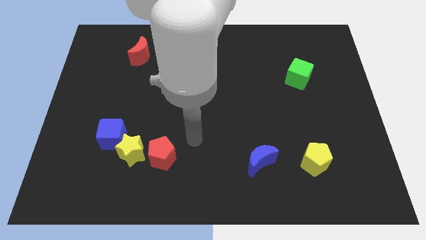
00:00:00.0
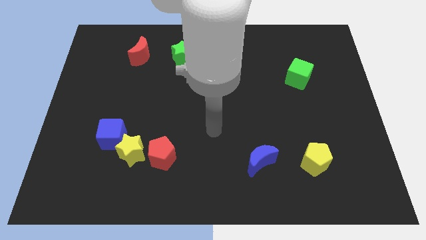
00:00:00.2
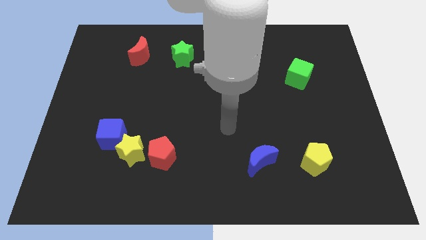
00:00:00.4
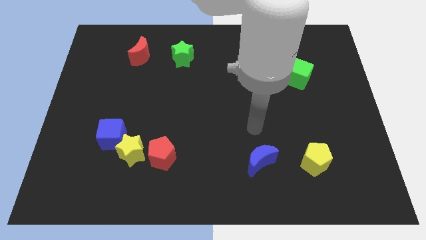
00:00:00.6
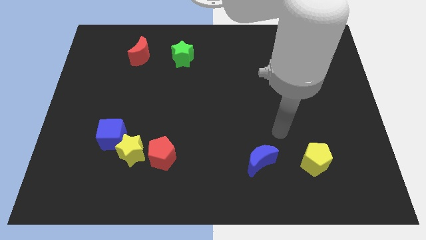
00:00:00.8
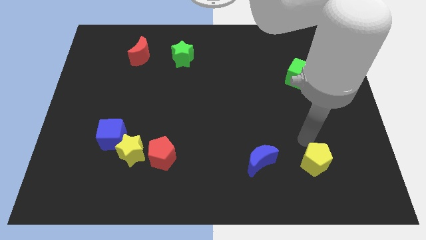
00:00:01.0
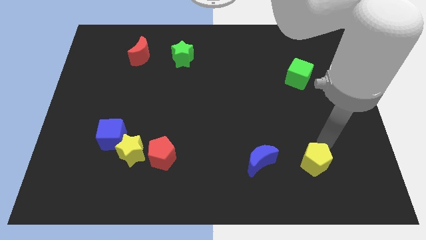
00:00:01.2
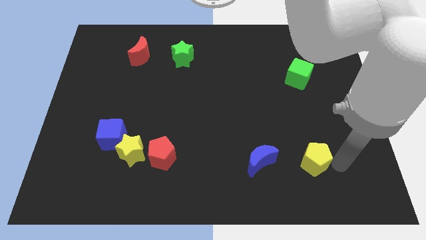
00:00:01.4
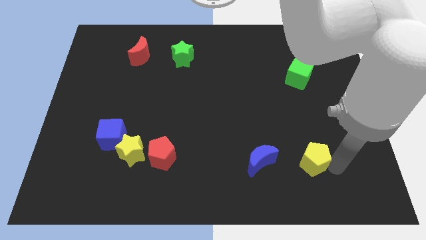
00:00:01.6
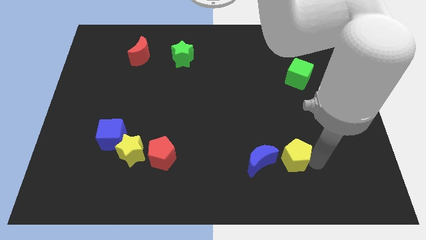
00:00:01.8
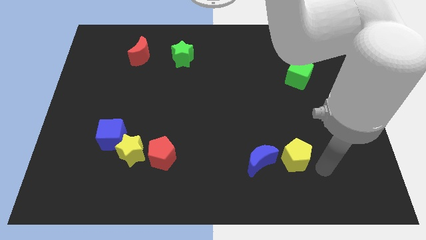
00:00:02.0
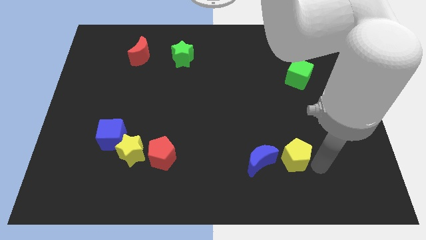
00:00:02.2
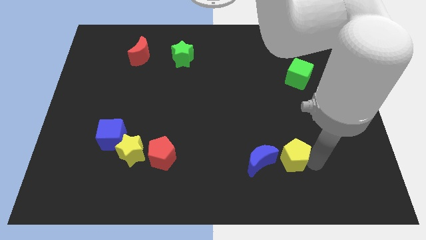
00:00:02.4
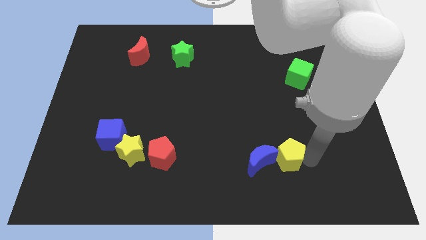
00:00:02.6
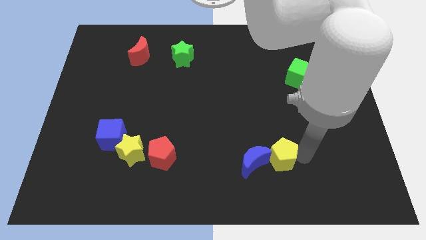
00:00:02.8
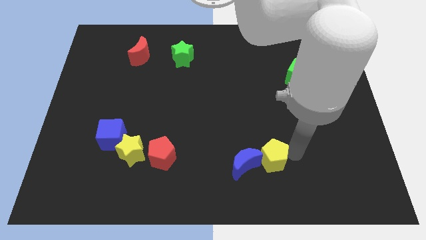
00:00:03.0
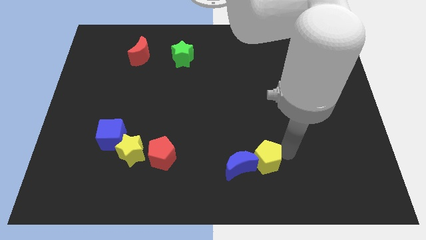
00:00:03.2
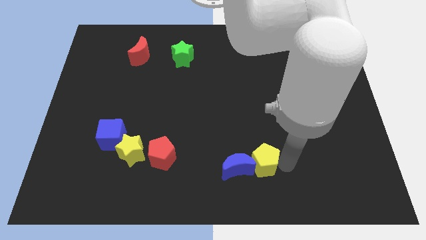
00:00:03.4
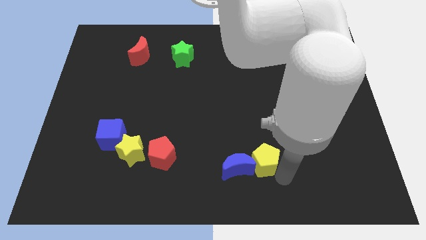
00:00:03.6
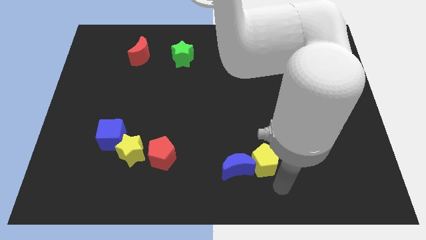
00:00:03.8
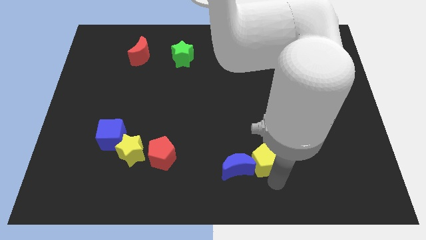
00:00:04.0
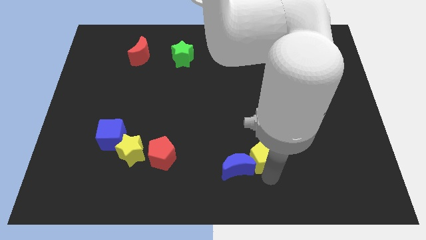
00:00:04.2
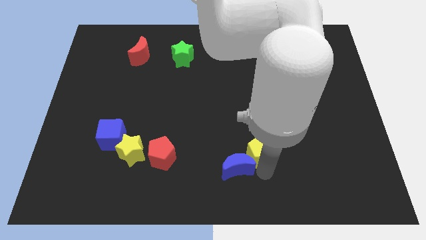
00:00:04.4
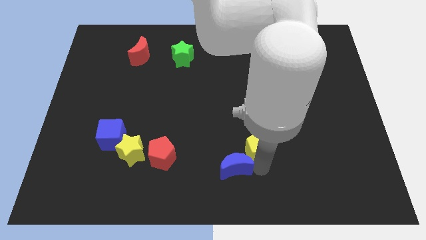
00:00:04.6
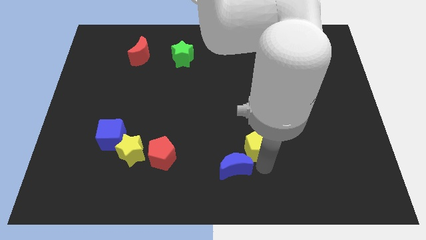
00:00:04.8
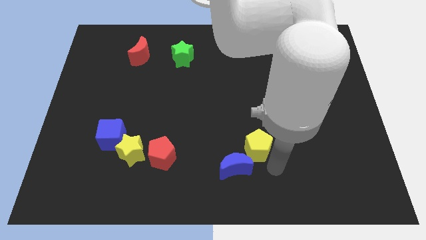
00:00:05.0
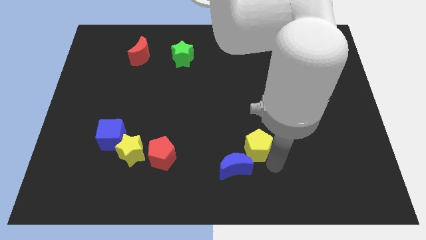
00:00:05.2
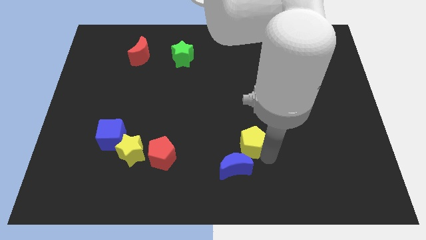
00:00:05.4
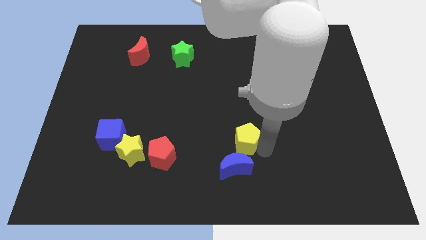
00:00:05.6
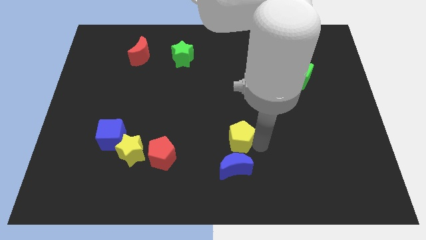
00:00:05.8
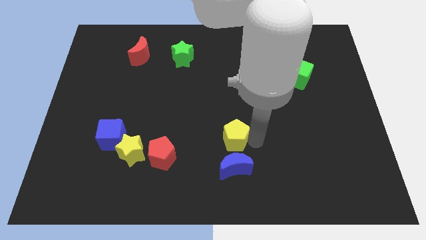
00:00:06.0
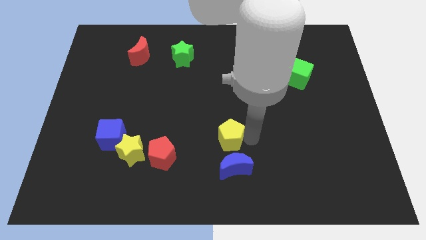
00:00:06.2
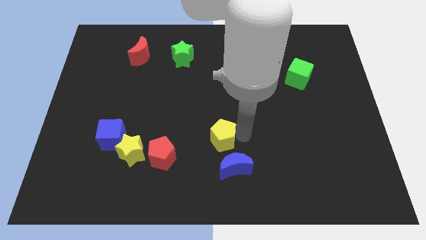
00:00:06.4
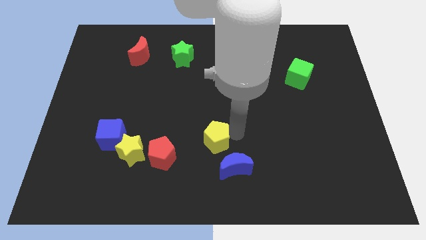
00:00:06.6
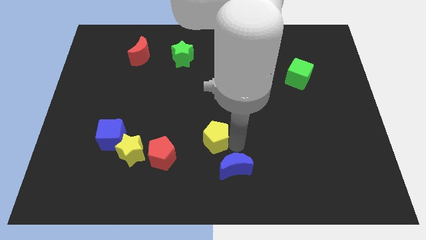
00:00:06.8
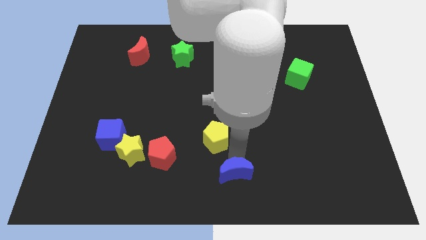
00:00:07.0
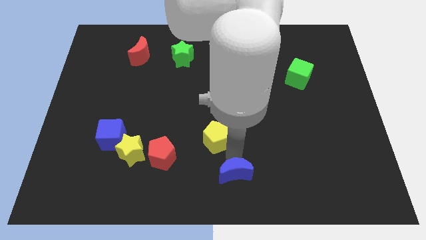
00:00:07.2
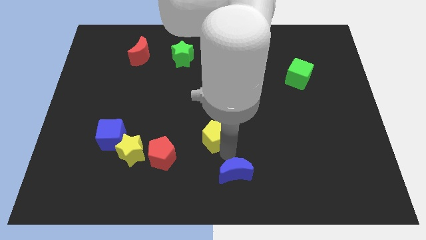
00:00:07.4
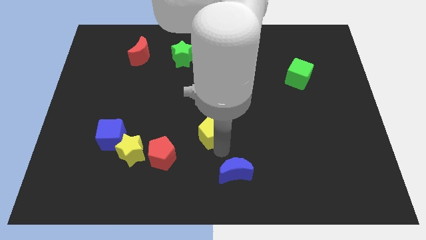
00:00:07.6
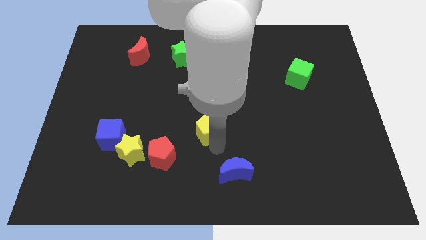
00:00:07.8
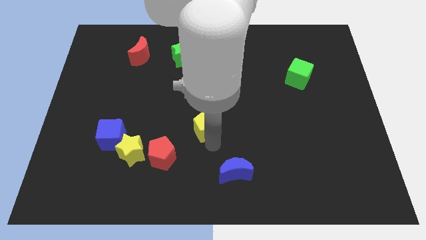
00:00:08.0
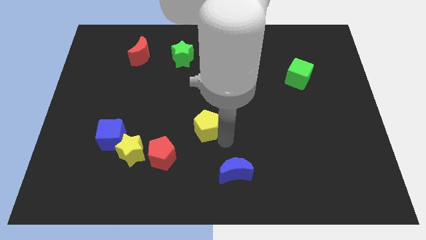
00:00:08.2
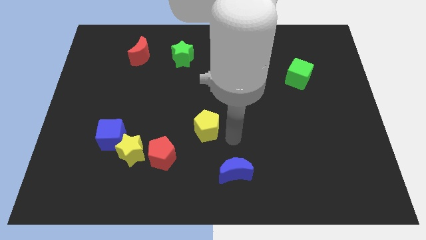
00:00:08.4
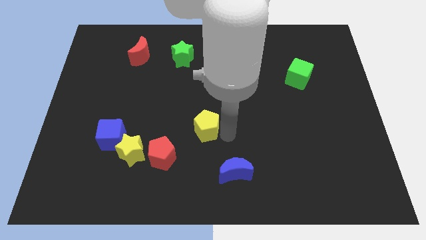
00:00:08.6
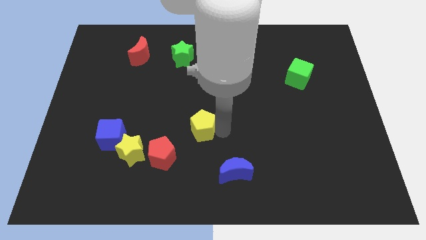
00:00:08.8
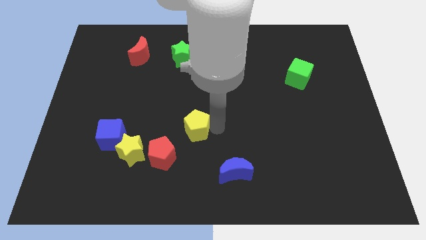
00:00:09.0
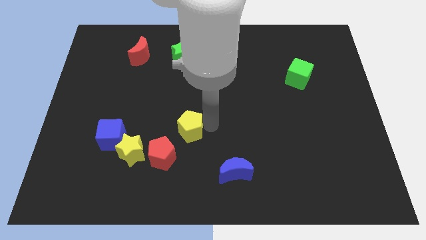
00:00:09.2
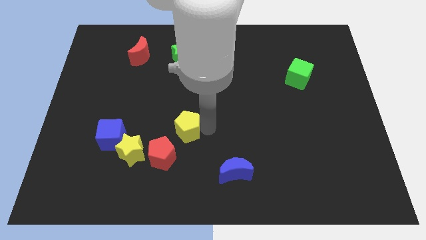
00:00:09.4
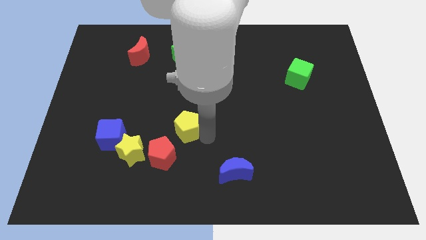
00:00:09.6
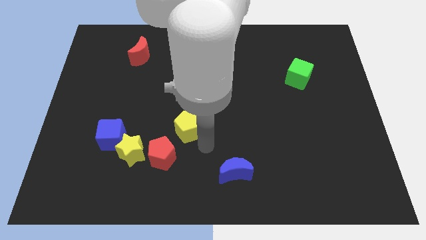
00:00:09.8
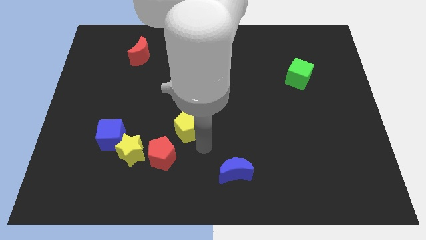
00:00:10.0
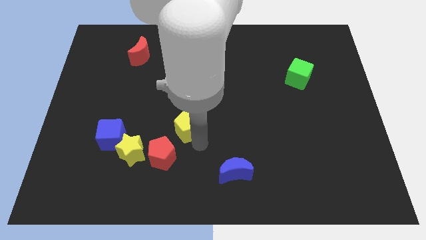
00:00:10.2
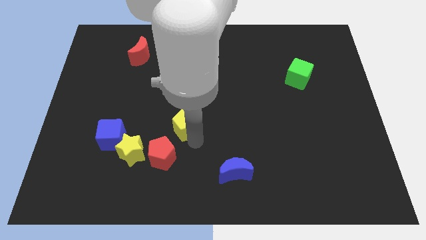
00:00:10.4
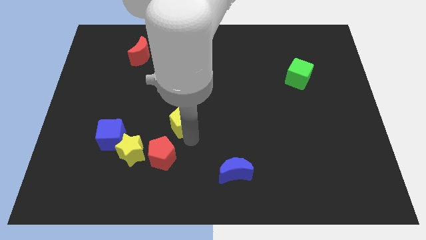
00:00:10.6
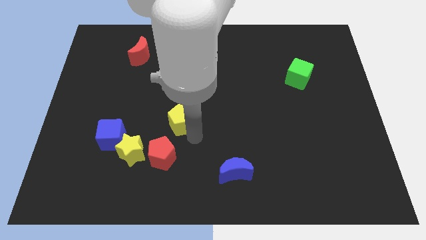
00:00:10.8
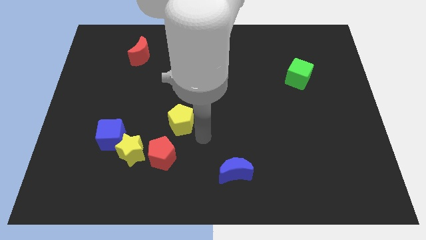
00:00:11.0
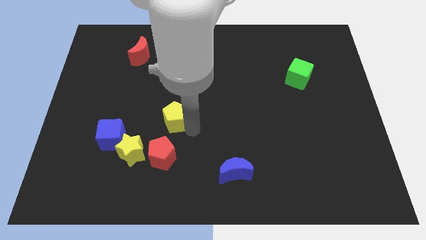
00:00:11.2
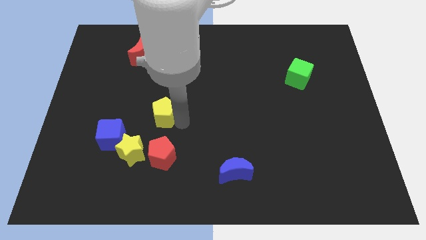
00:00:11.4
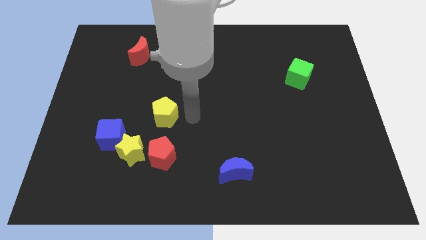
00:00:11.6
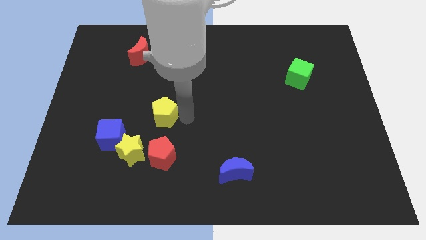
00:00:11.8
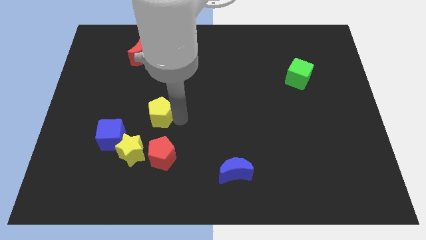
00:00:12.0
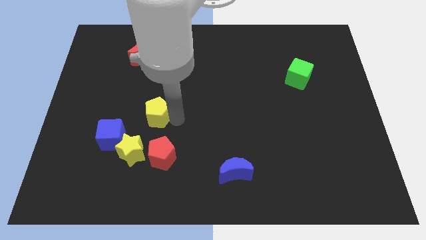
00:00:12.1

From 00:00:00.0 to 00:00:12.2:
push the yellow pentagon to the top side of the yellow star

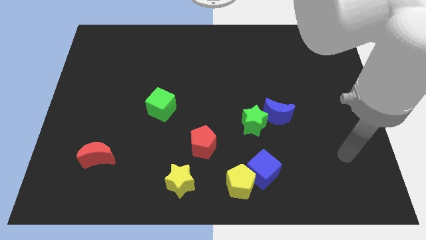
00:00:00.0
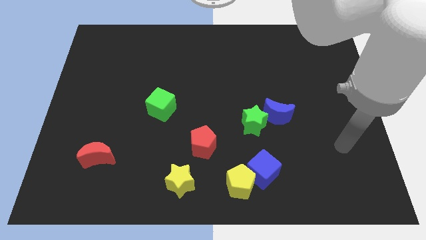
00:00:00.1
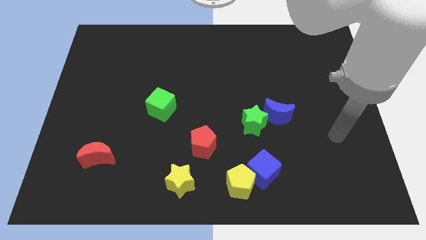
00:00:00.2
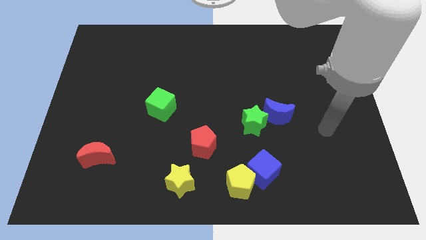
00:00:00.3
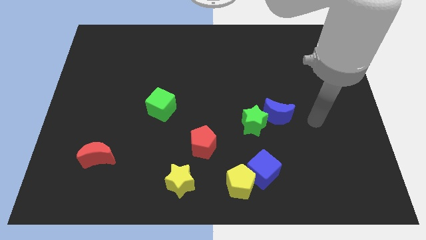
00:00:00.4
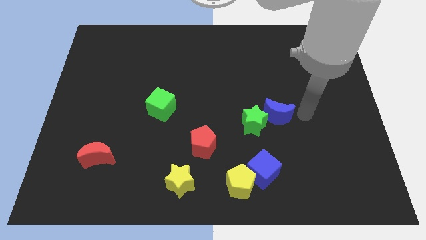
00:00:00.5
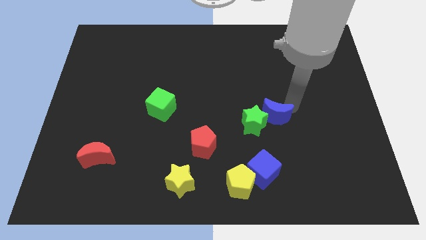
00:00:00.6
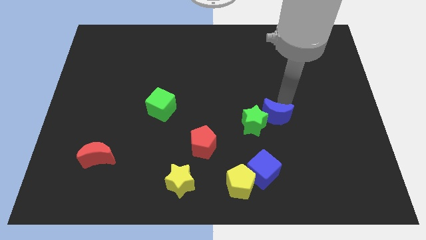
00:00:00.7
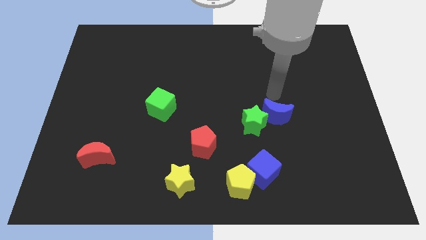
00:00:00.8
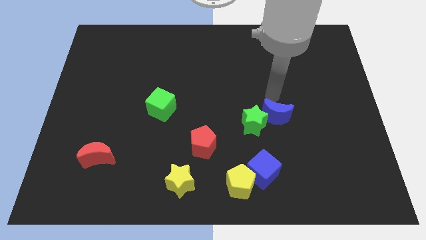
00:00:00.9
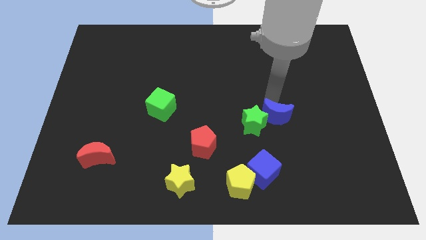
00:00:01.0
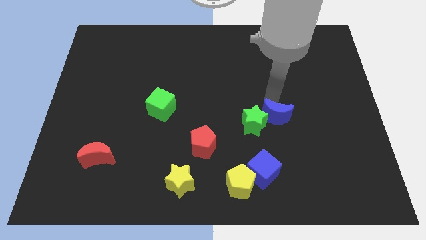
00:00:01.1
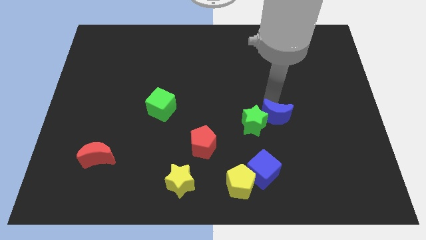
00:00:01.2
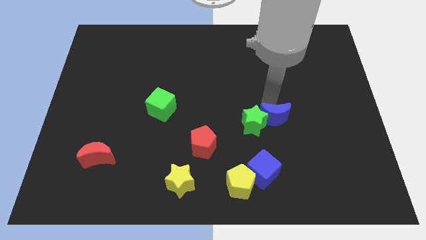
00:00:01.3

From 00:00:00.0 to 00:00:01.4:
move the blue moon to the bottom right side of the green star
